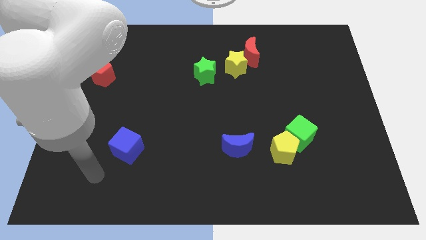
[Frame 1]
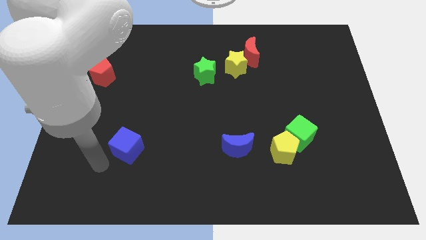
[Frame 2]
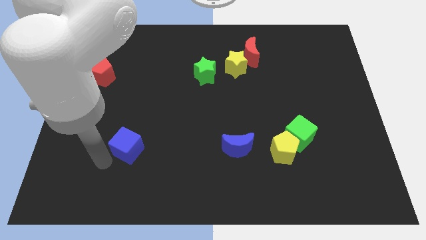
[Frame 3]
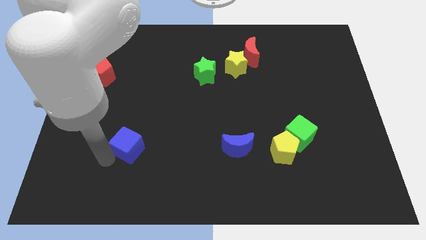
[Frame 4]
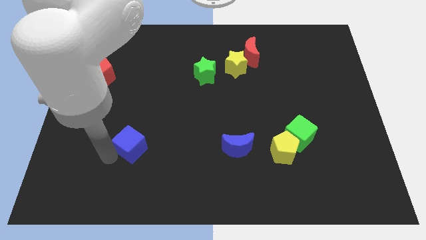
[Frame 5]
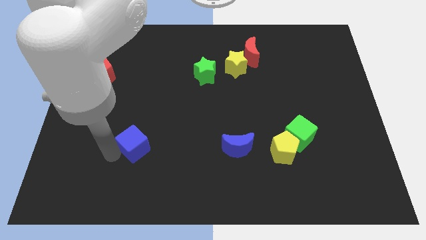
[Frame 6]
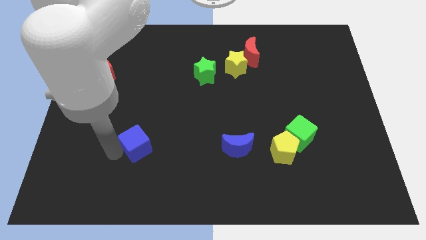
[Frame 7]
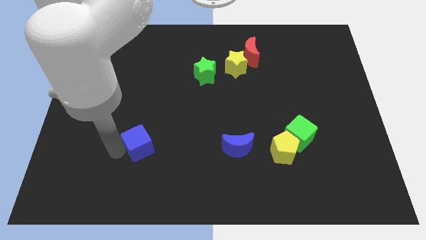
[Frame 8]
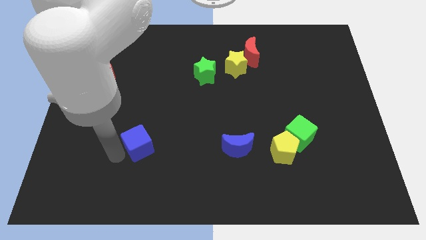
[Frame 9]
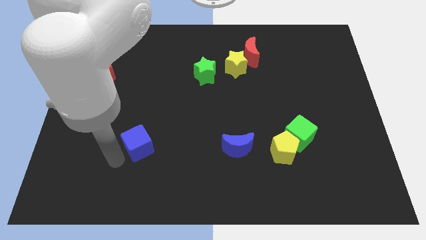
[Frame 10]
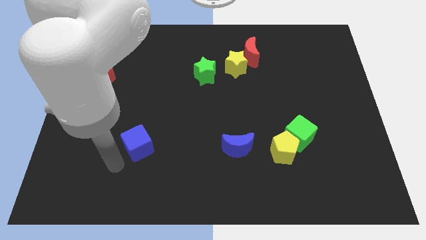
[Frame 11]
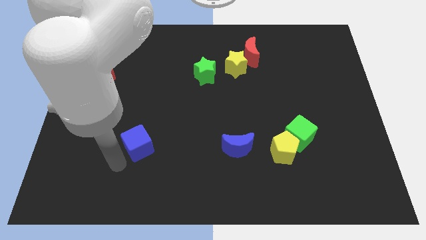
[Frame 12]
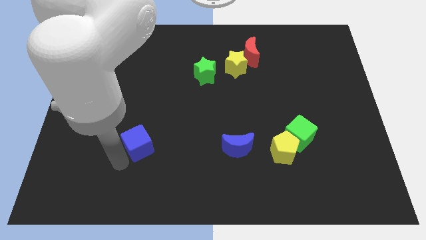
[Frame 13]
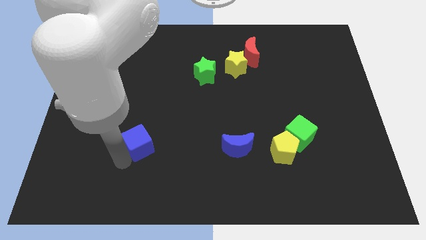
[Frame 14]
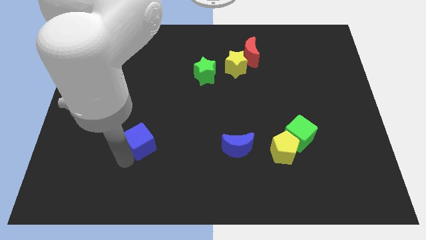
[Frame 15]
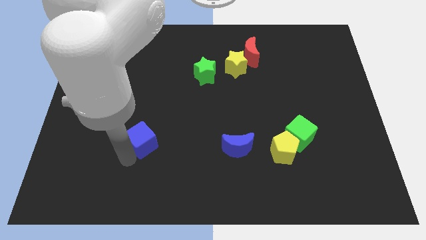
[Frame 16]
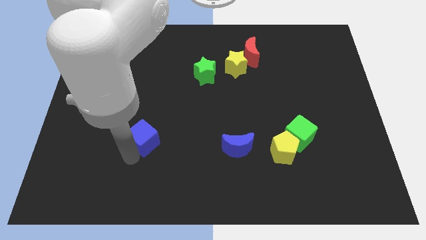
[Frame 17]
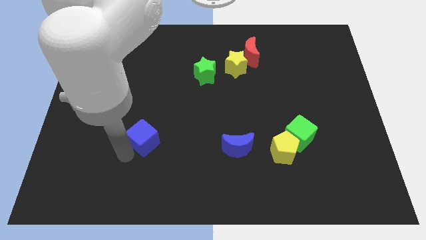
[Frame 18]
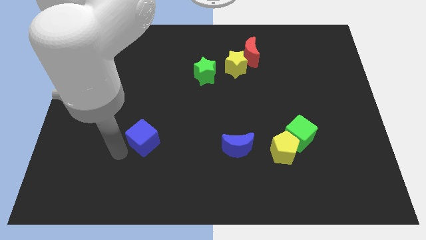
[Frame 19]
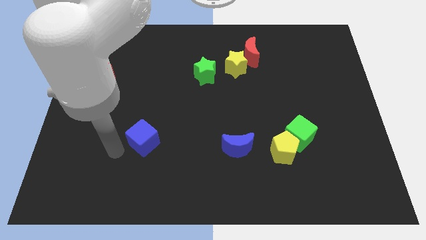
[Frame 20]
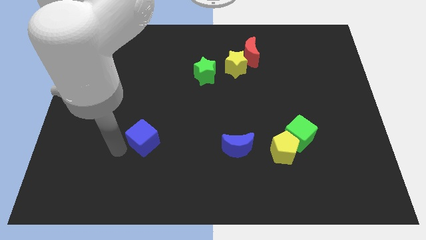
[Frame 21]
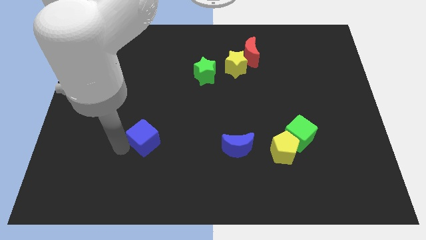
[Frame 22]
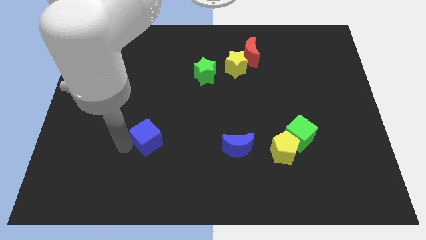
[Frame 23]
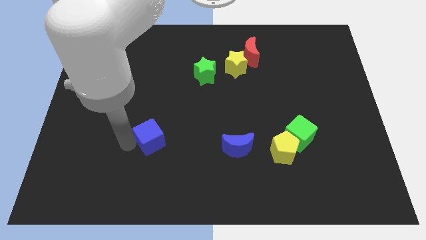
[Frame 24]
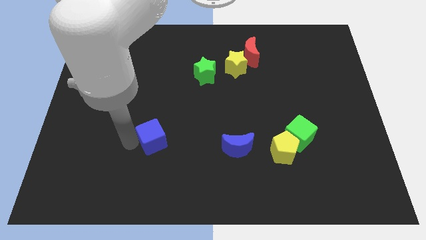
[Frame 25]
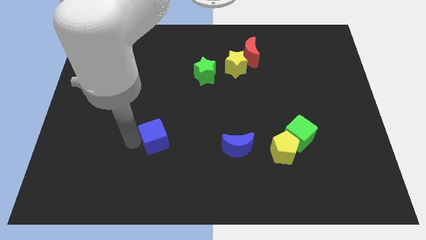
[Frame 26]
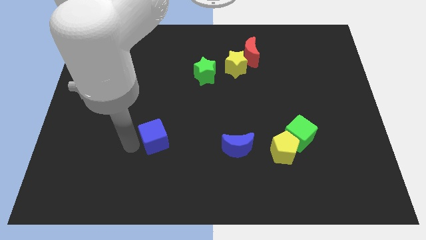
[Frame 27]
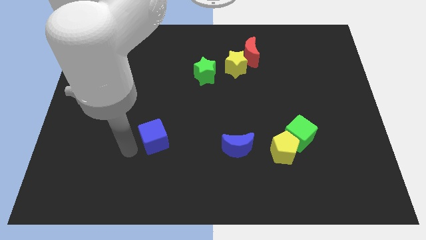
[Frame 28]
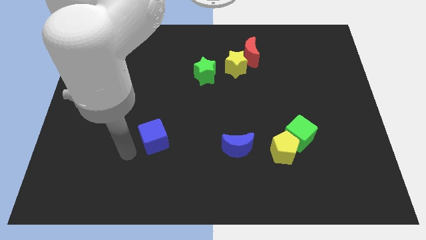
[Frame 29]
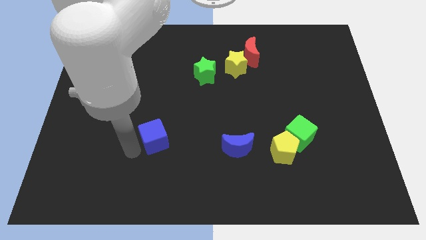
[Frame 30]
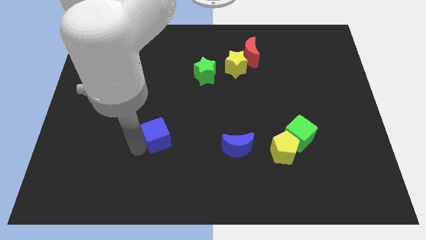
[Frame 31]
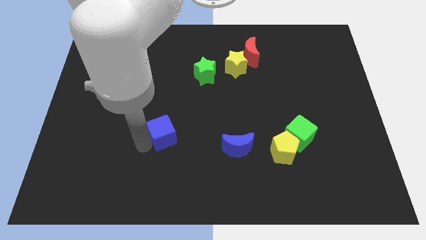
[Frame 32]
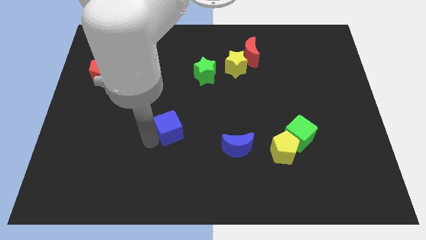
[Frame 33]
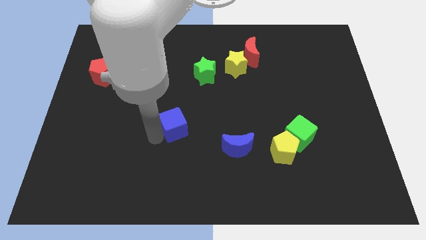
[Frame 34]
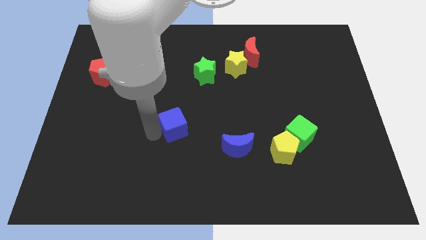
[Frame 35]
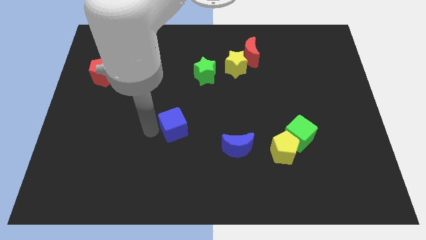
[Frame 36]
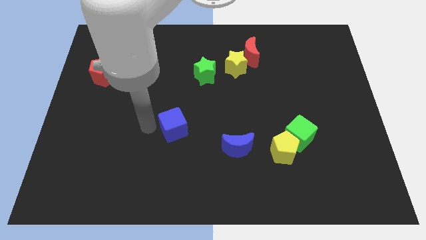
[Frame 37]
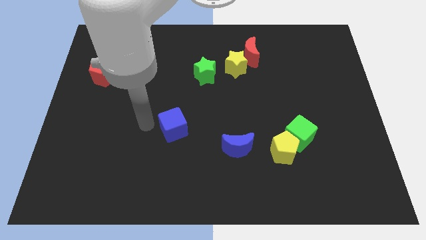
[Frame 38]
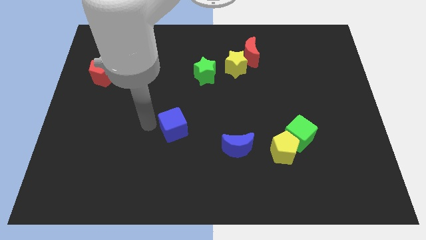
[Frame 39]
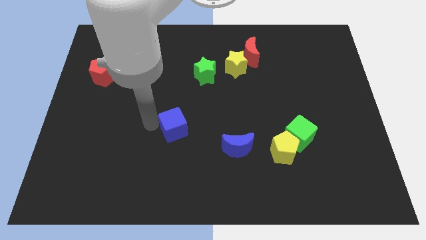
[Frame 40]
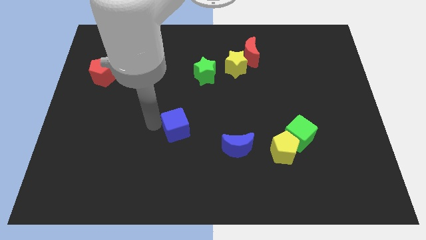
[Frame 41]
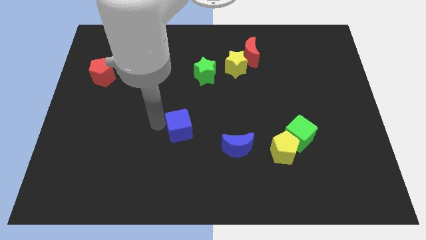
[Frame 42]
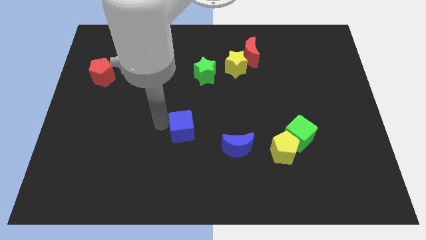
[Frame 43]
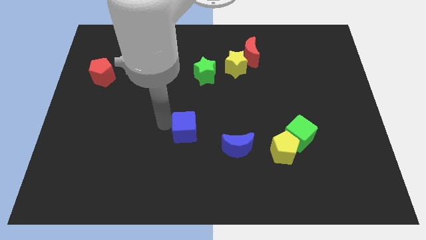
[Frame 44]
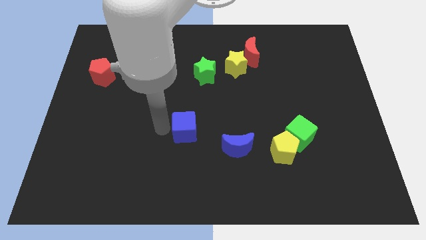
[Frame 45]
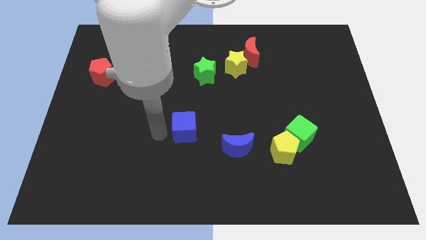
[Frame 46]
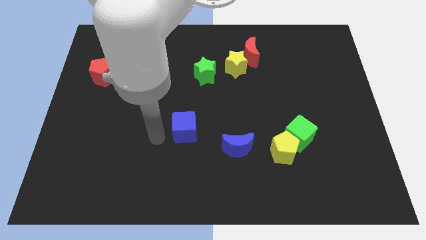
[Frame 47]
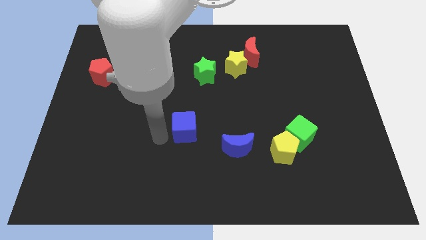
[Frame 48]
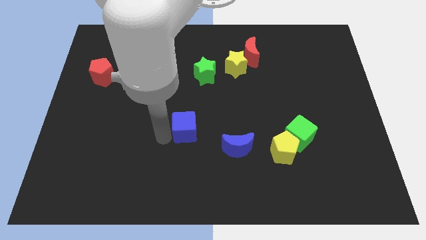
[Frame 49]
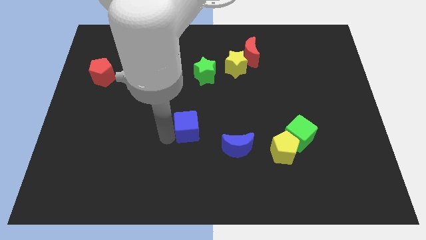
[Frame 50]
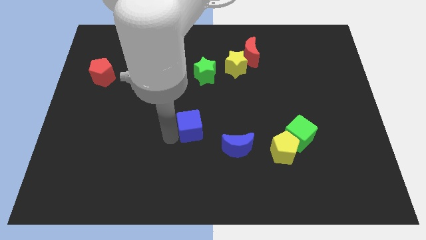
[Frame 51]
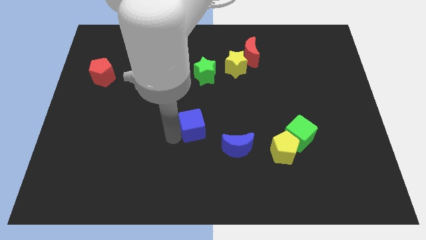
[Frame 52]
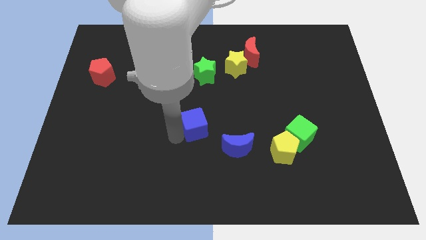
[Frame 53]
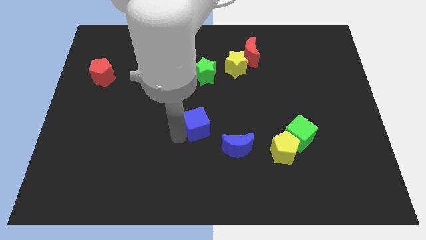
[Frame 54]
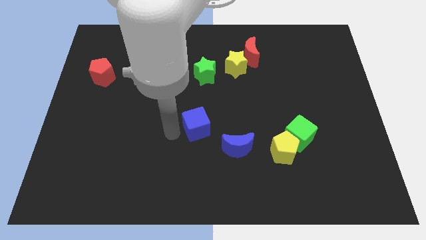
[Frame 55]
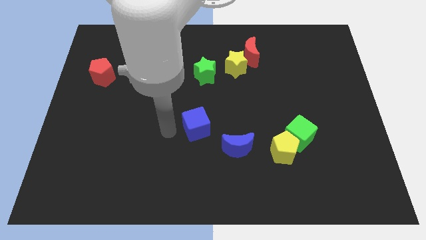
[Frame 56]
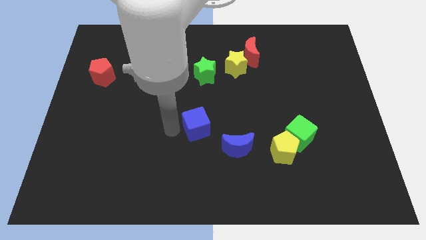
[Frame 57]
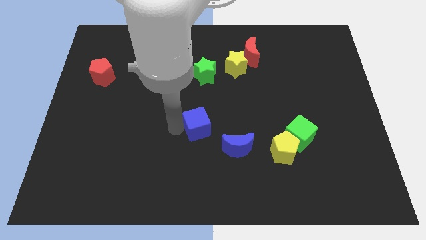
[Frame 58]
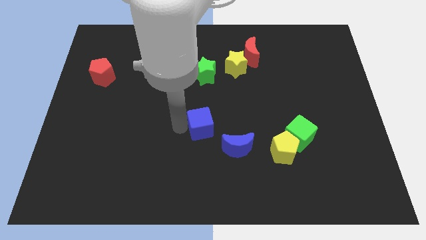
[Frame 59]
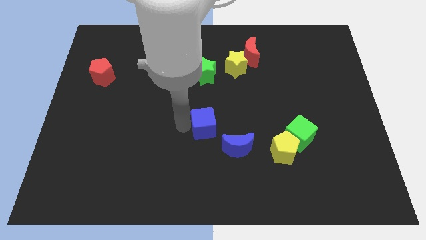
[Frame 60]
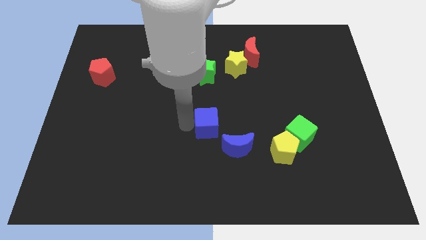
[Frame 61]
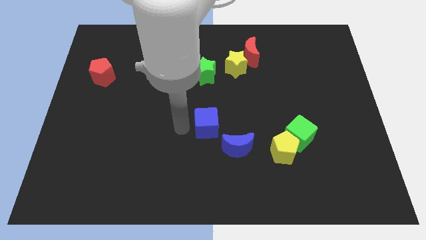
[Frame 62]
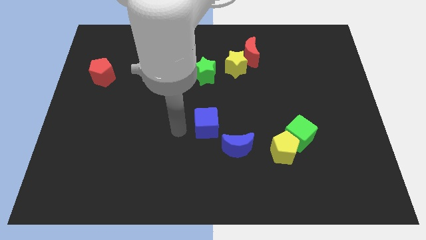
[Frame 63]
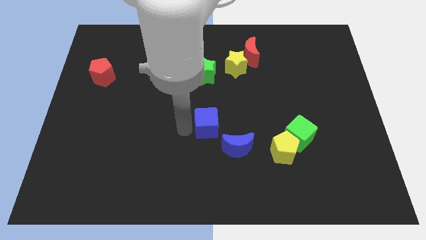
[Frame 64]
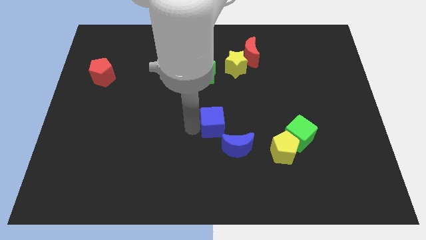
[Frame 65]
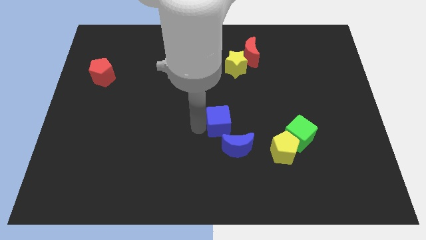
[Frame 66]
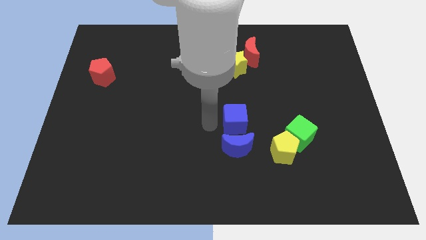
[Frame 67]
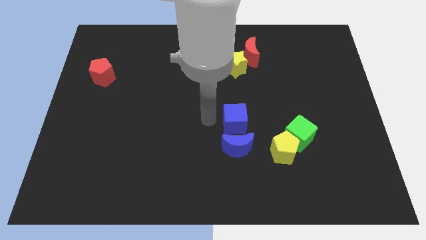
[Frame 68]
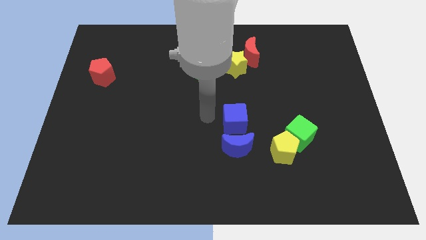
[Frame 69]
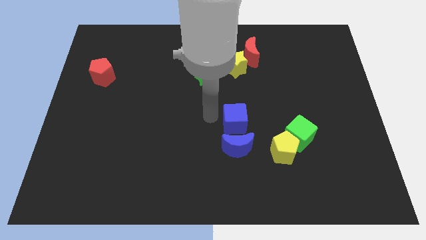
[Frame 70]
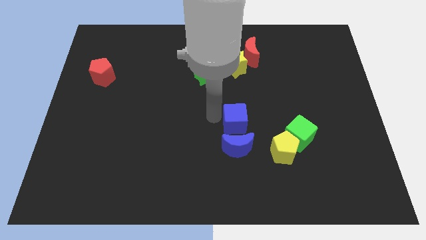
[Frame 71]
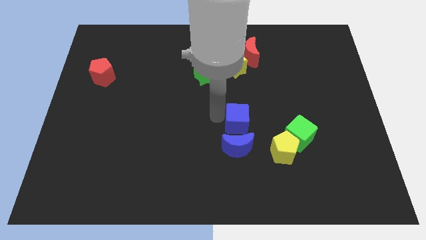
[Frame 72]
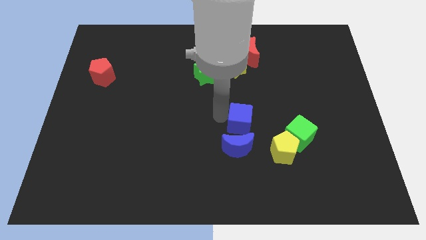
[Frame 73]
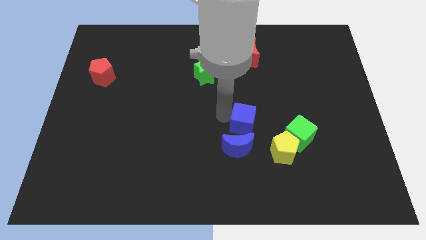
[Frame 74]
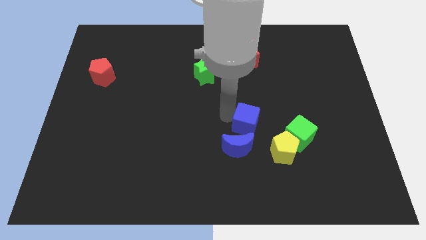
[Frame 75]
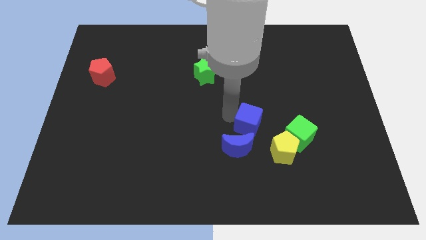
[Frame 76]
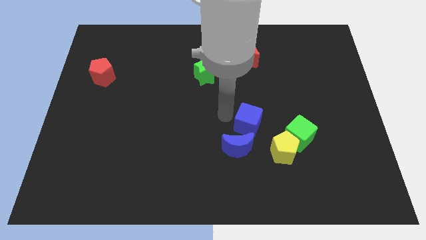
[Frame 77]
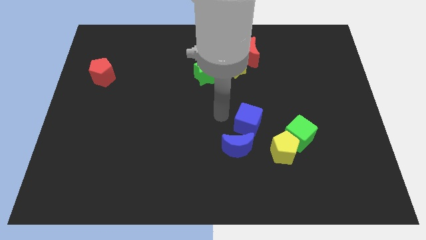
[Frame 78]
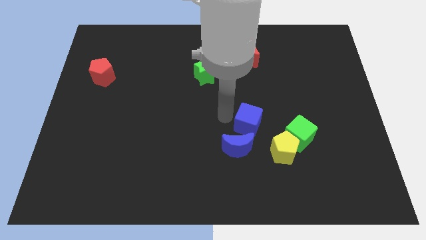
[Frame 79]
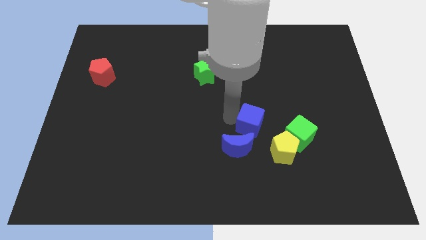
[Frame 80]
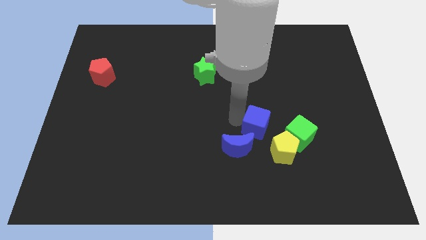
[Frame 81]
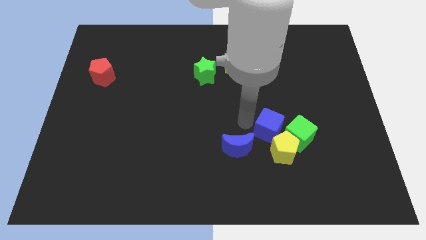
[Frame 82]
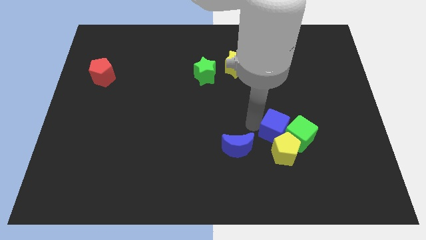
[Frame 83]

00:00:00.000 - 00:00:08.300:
push the blue cube close to the green cube
